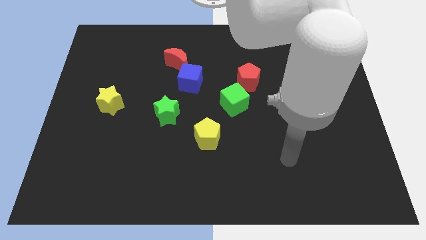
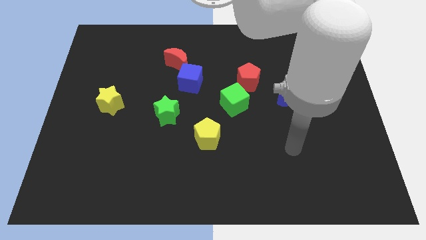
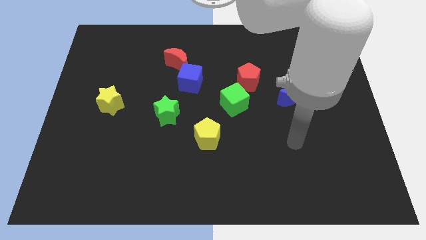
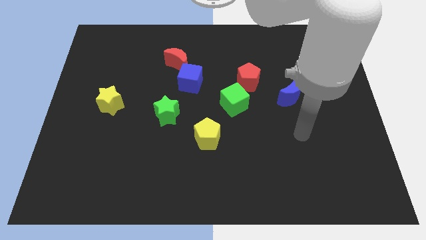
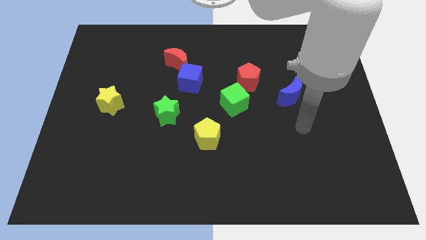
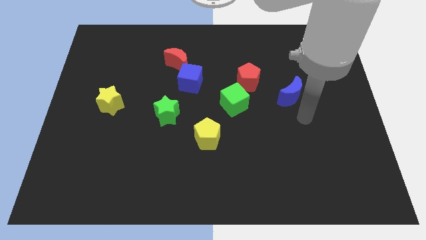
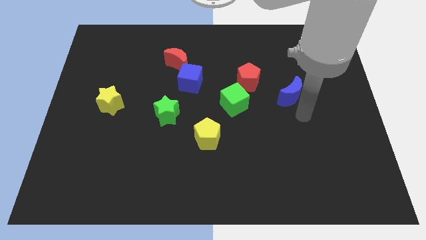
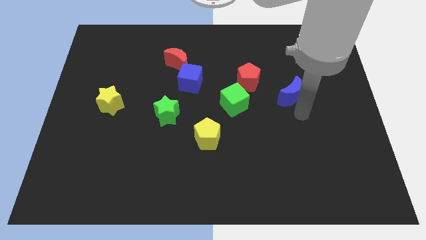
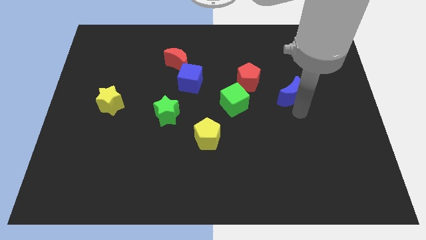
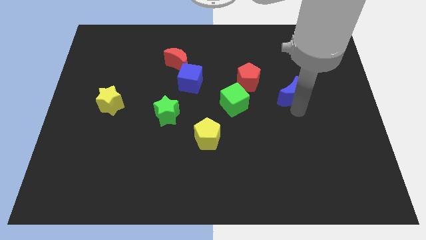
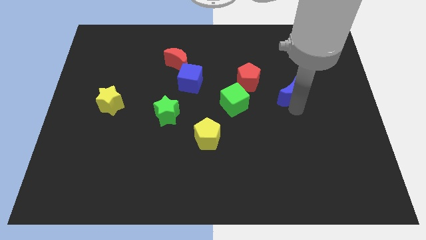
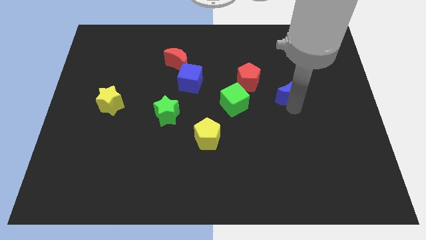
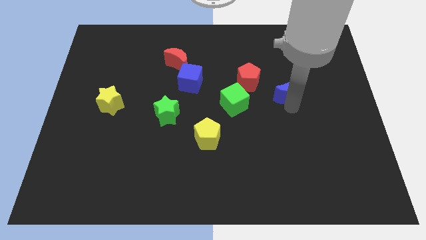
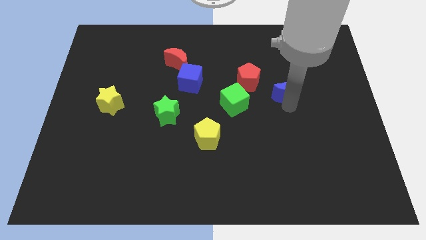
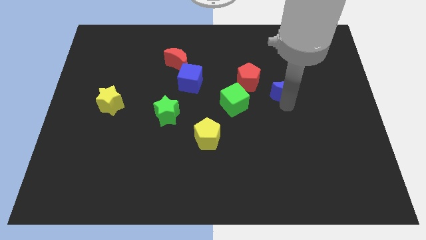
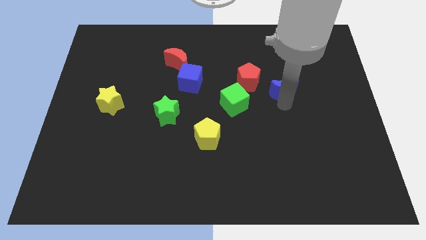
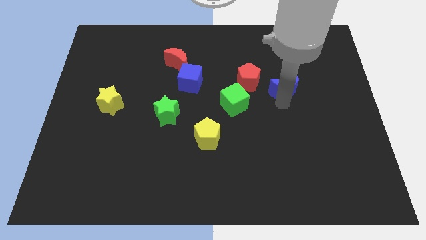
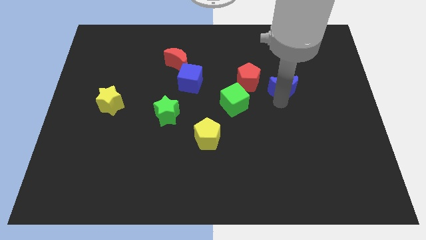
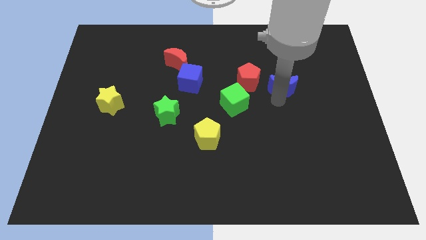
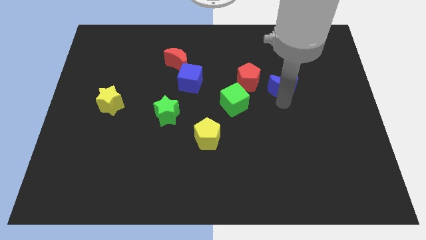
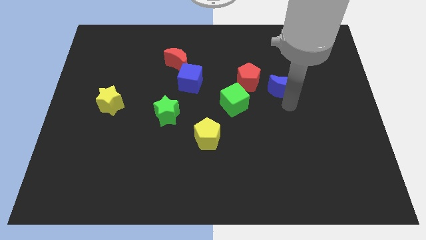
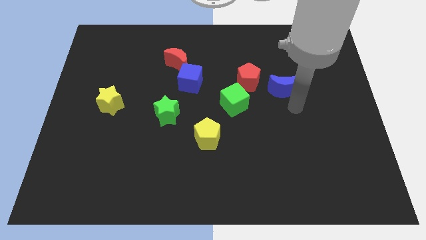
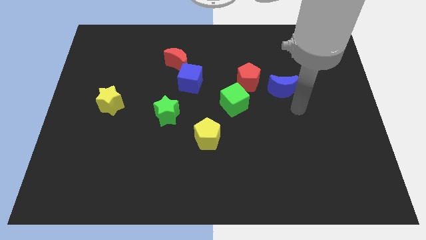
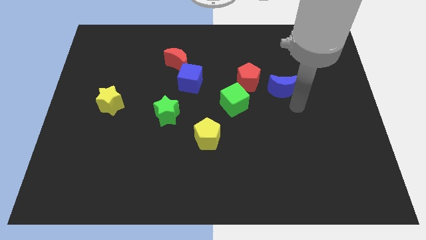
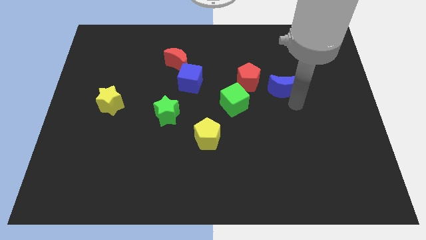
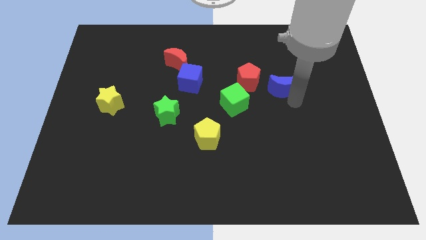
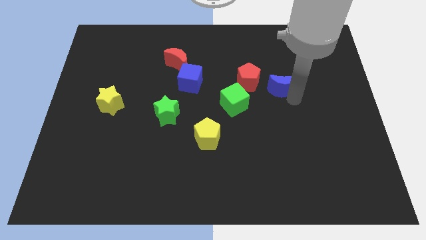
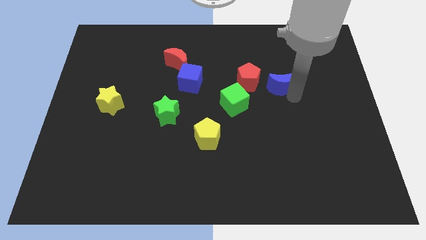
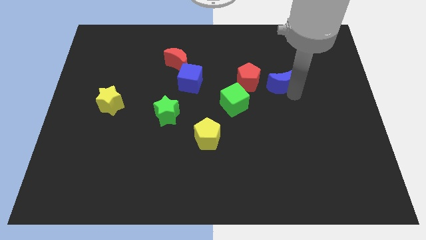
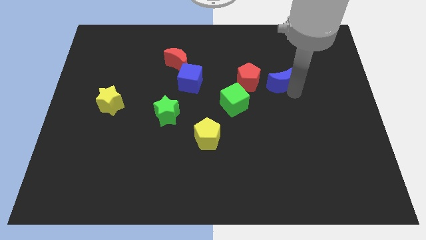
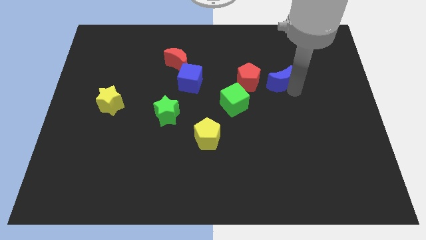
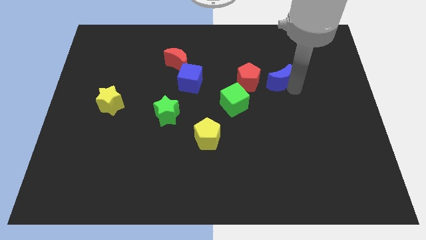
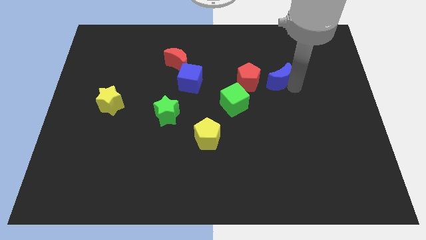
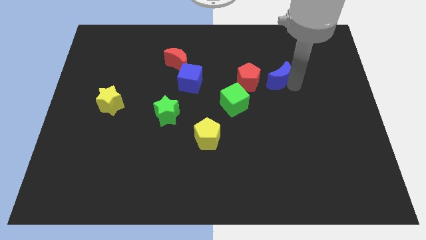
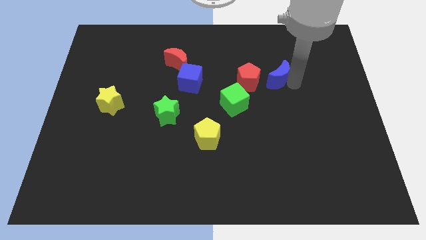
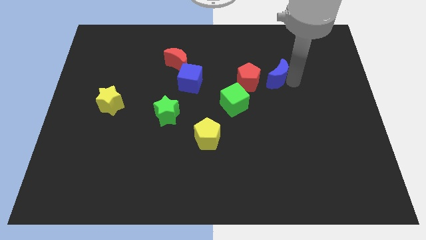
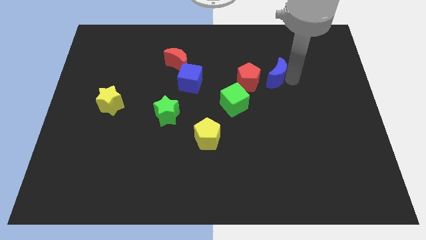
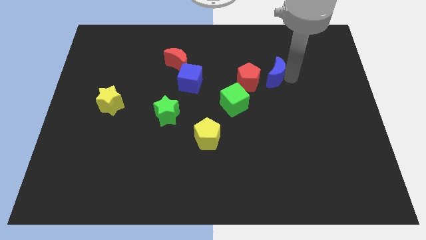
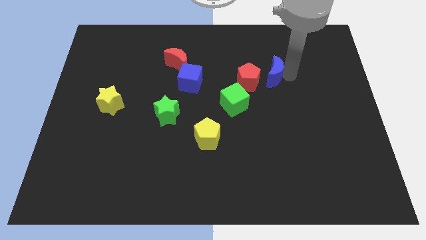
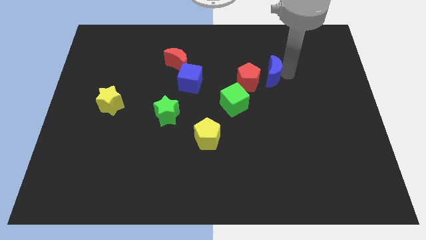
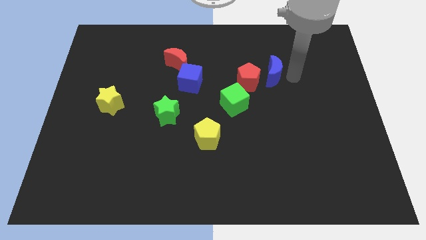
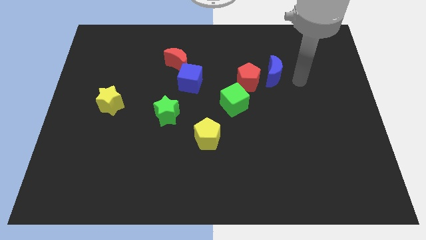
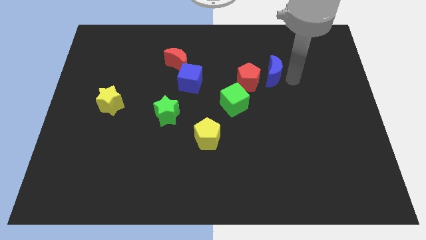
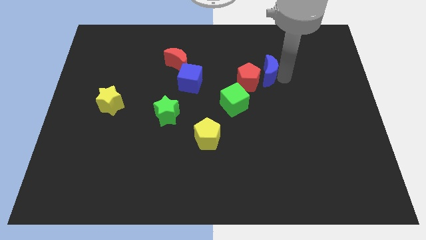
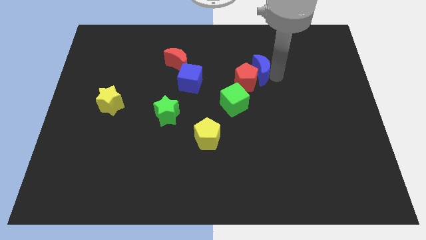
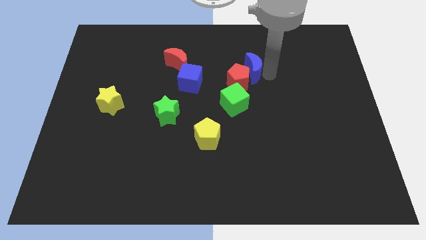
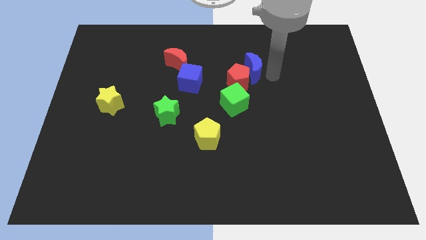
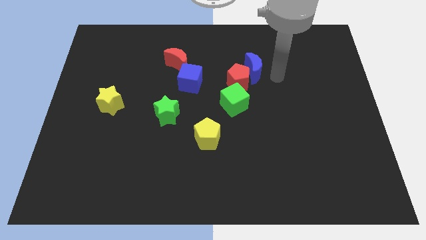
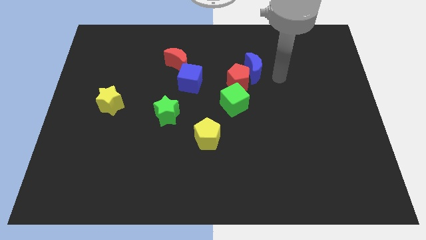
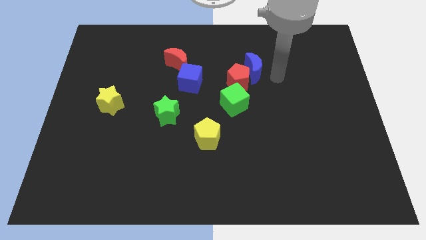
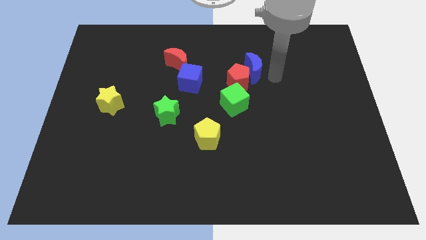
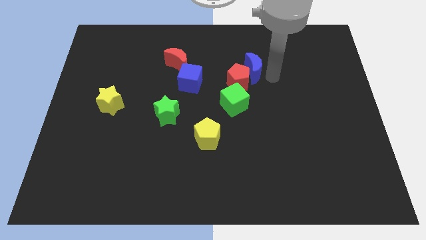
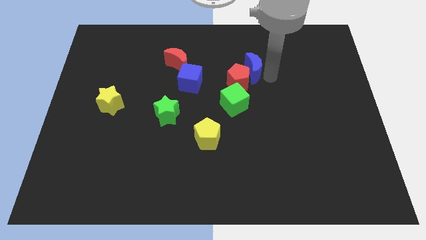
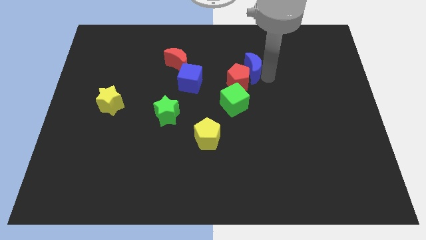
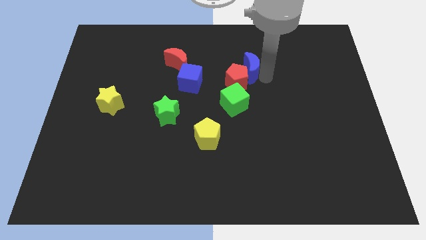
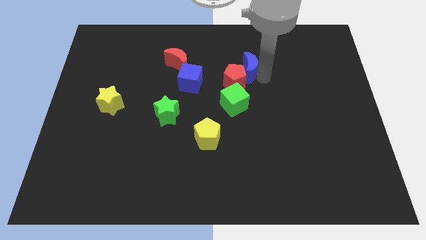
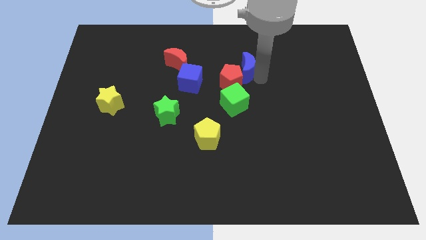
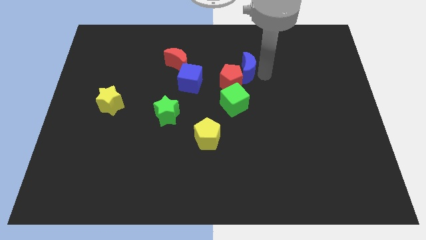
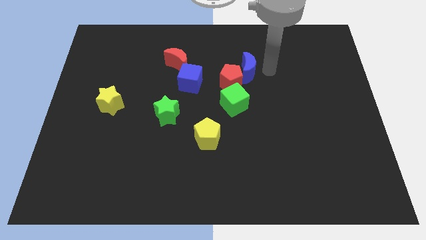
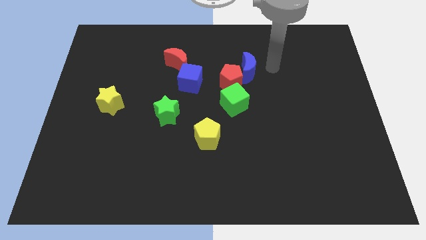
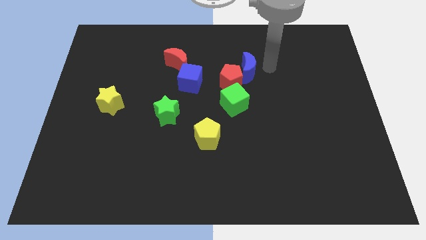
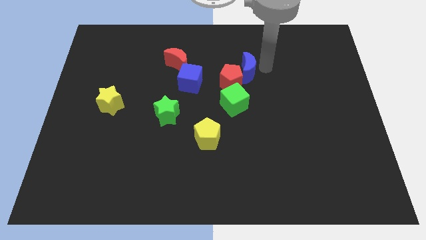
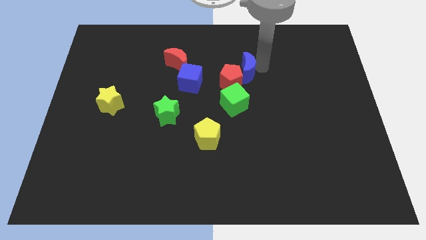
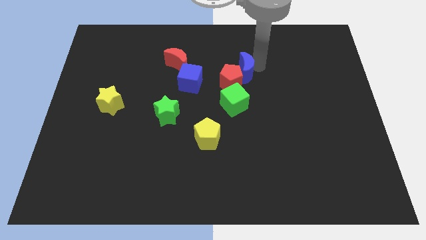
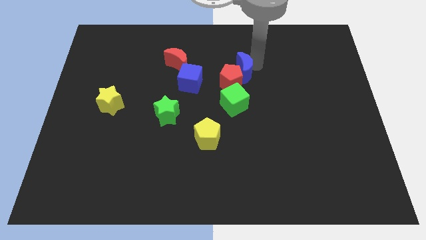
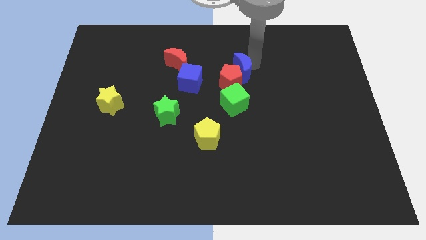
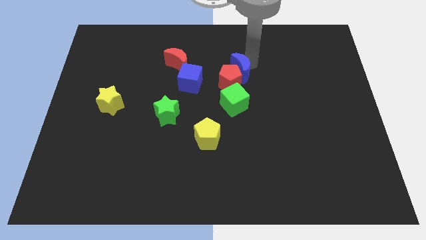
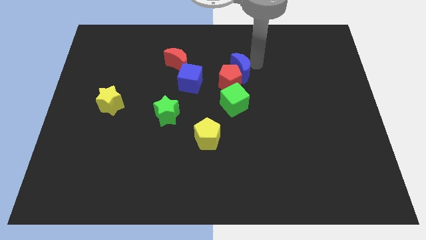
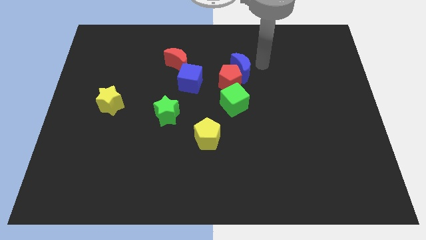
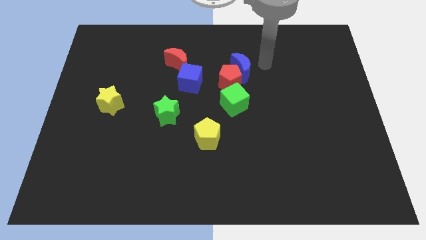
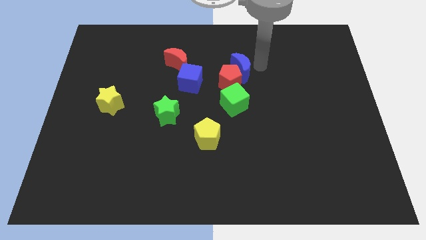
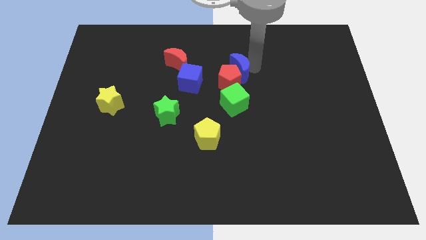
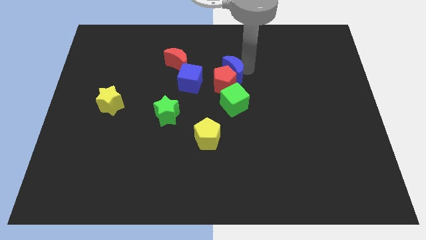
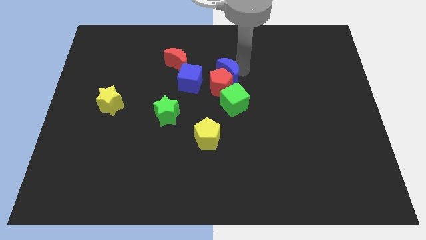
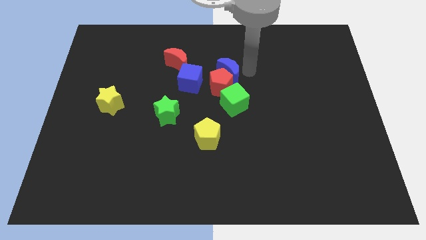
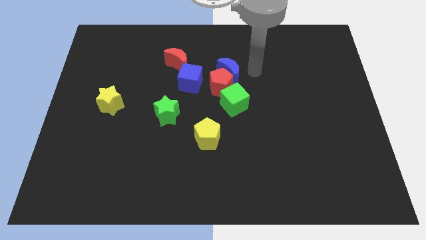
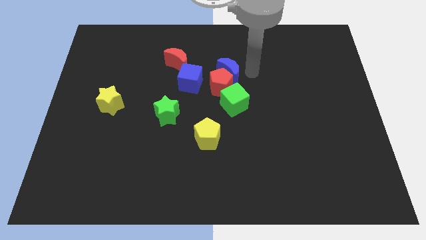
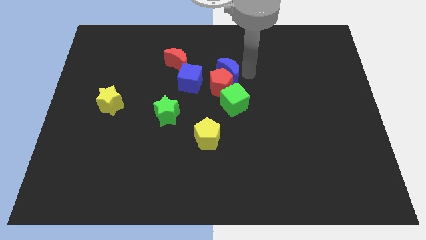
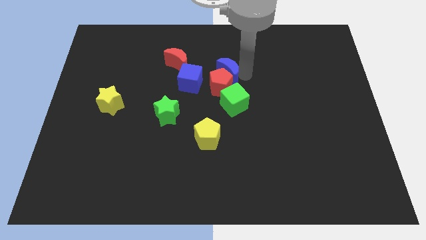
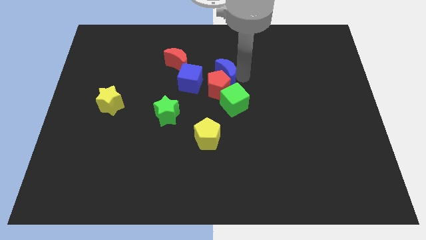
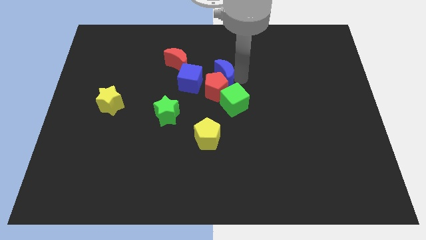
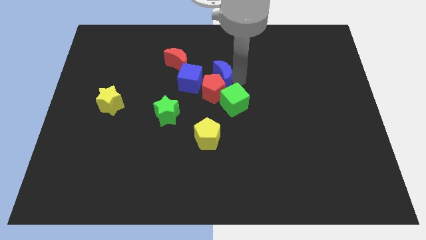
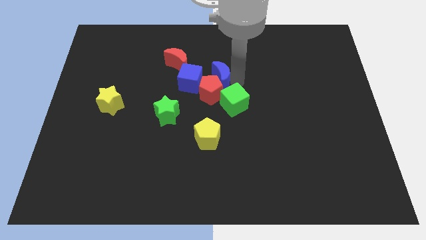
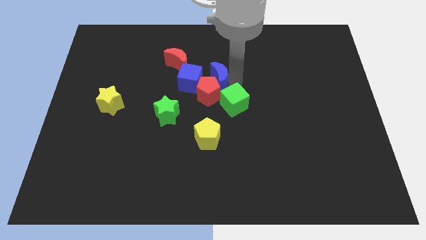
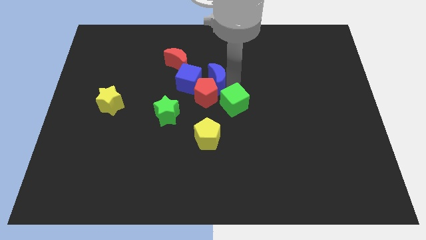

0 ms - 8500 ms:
put the blue moon to the bottom right side of the red moon
